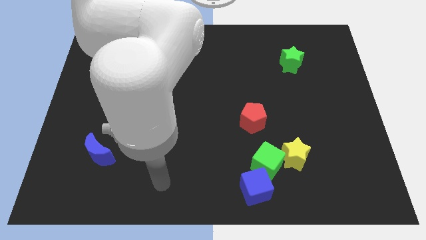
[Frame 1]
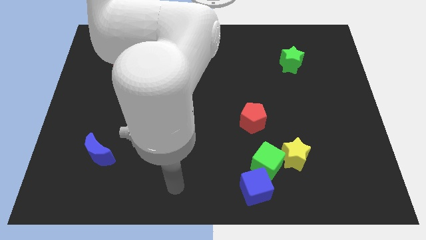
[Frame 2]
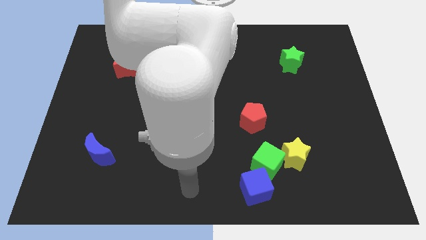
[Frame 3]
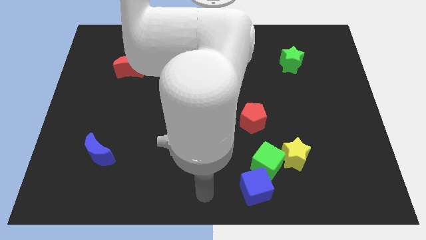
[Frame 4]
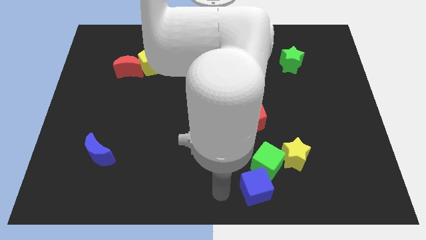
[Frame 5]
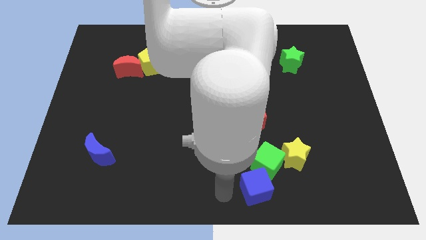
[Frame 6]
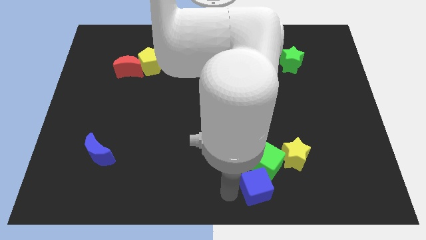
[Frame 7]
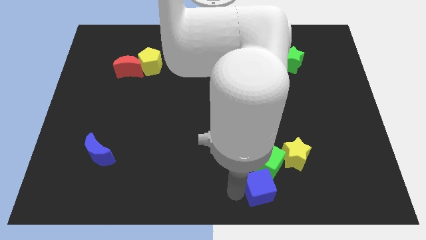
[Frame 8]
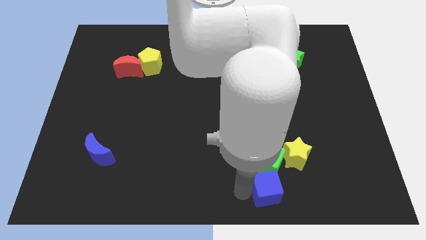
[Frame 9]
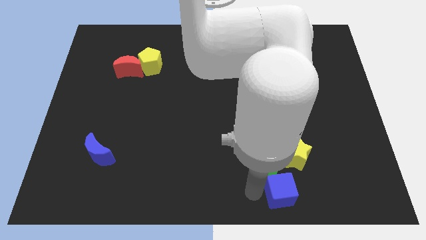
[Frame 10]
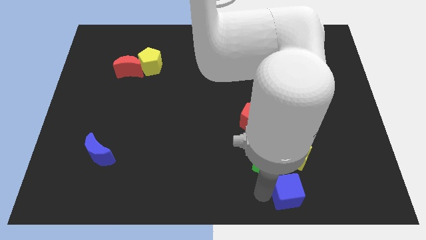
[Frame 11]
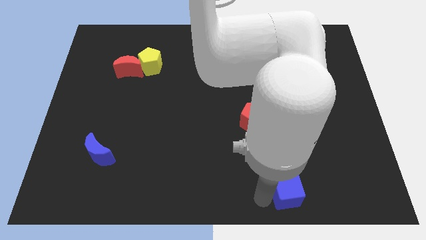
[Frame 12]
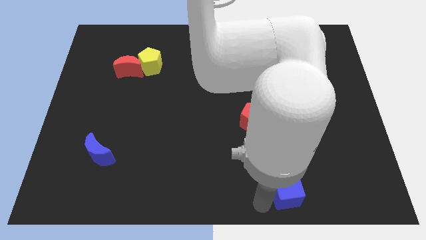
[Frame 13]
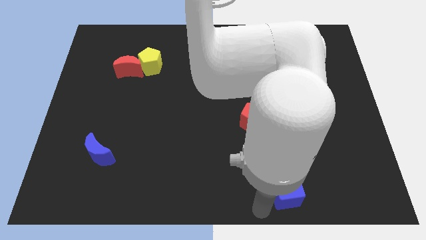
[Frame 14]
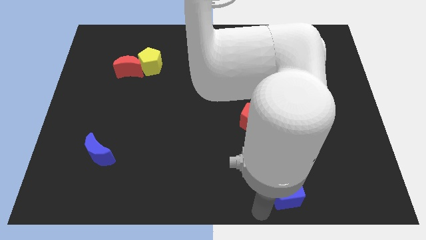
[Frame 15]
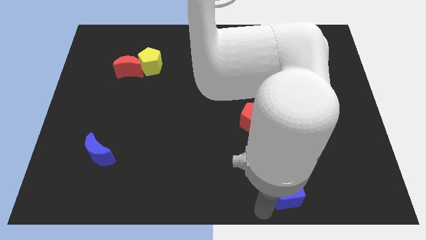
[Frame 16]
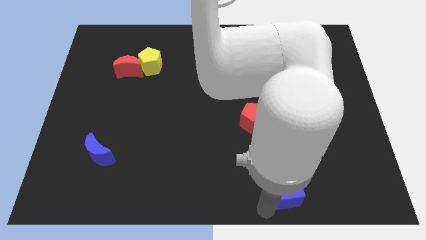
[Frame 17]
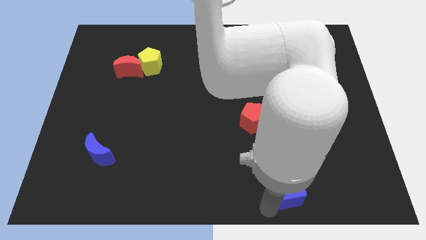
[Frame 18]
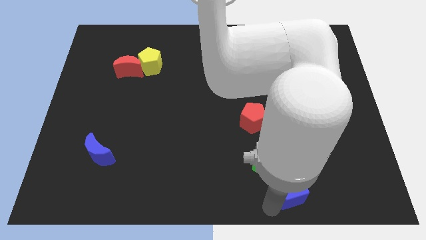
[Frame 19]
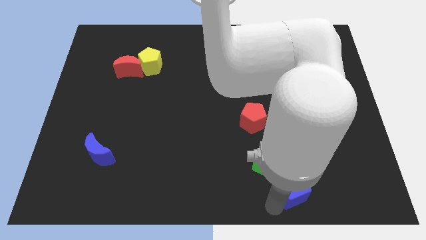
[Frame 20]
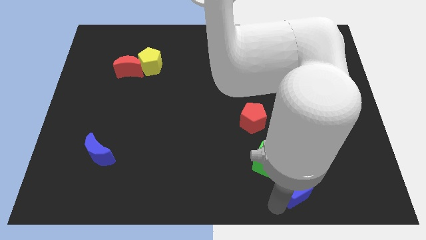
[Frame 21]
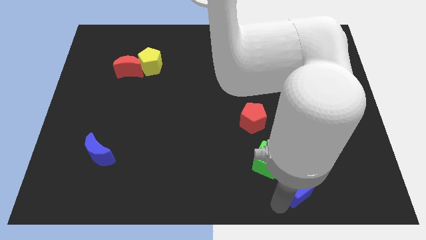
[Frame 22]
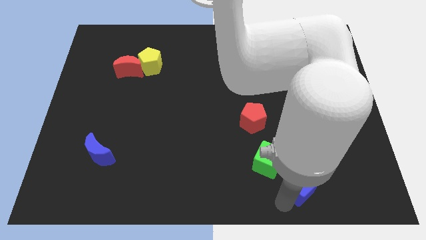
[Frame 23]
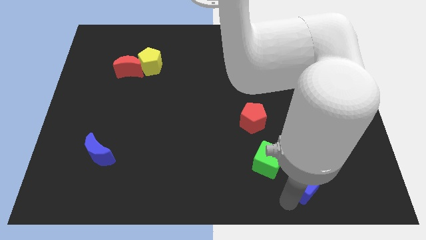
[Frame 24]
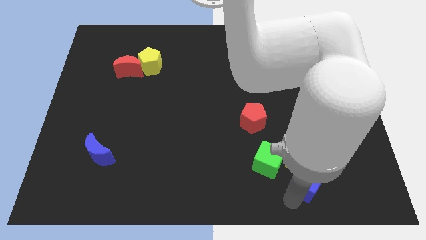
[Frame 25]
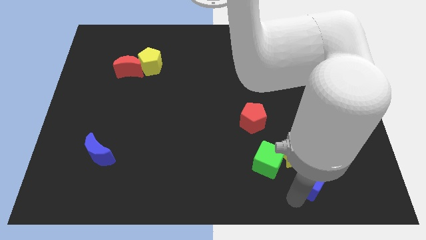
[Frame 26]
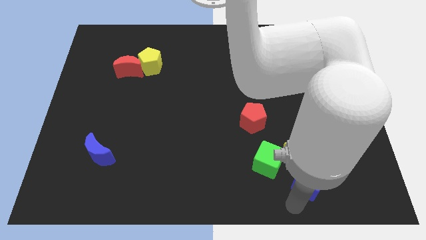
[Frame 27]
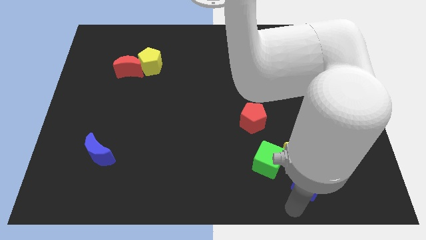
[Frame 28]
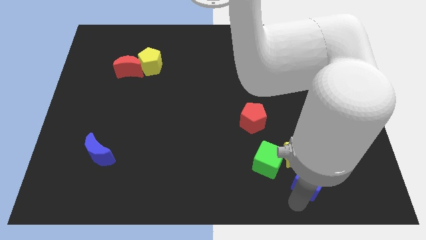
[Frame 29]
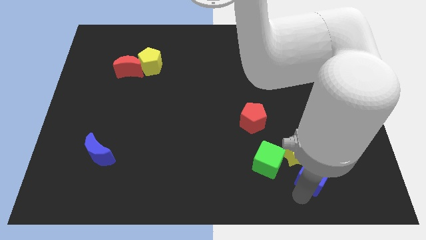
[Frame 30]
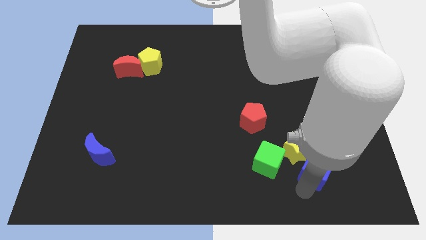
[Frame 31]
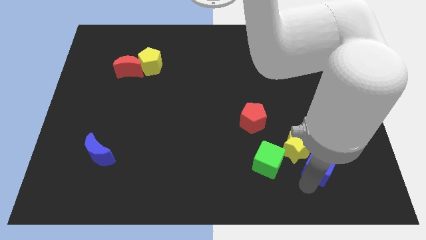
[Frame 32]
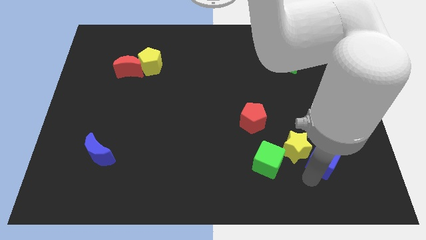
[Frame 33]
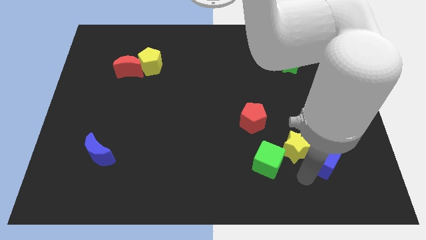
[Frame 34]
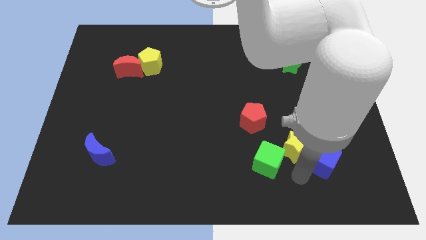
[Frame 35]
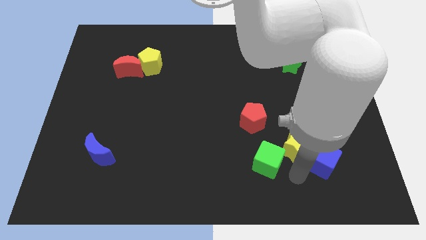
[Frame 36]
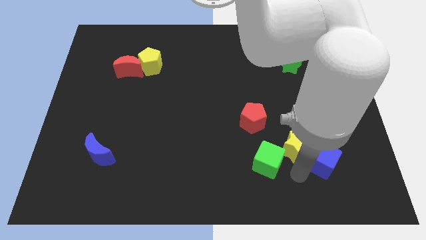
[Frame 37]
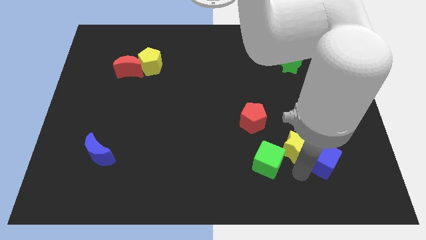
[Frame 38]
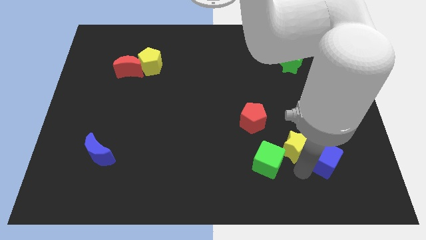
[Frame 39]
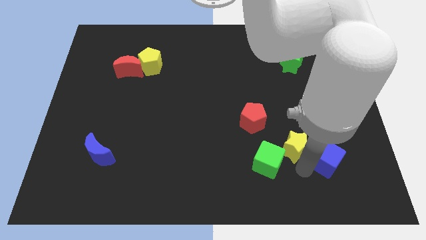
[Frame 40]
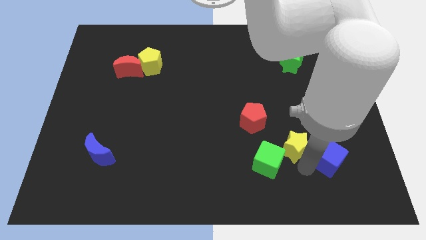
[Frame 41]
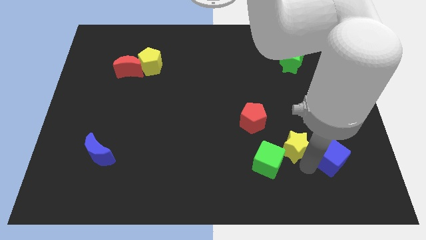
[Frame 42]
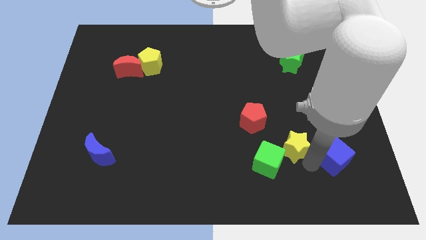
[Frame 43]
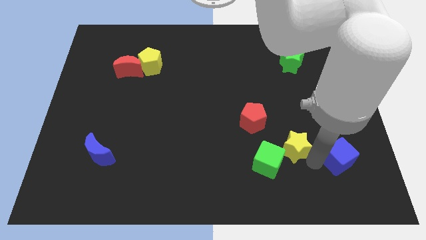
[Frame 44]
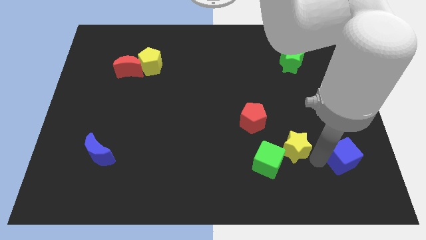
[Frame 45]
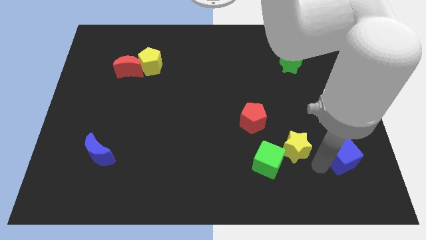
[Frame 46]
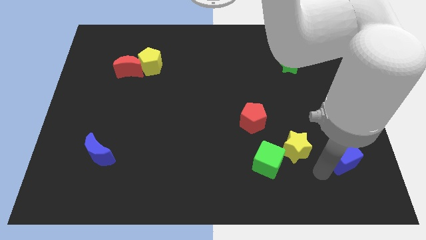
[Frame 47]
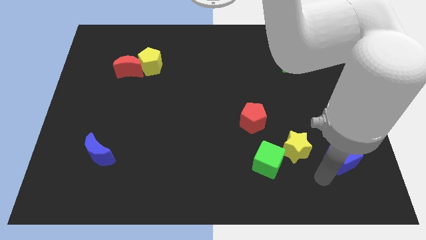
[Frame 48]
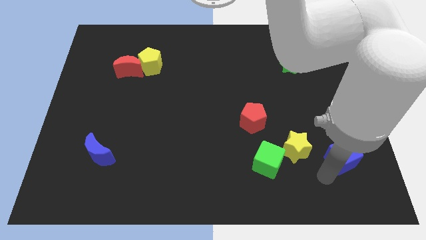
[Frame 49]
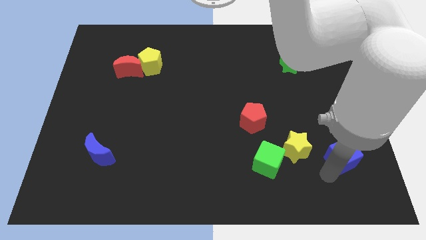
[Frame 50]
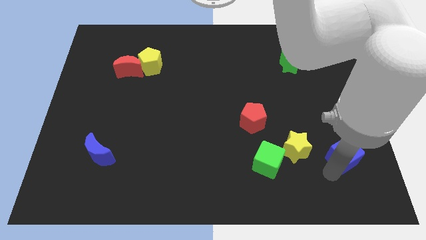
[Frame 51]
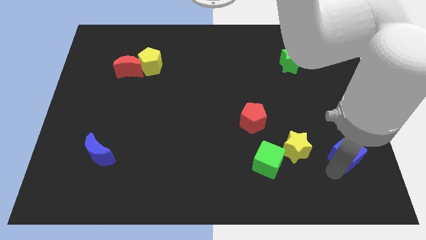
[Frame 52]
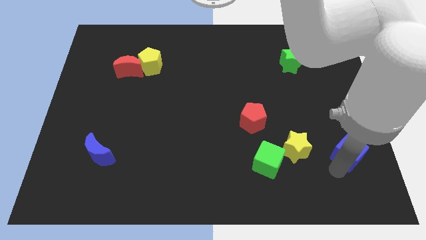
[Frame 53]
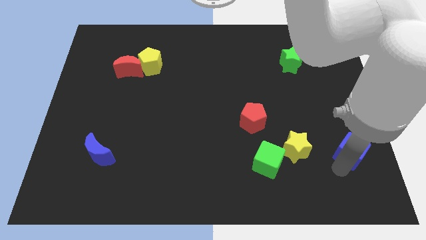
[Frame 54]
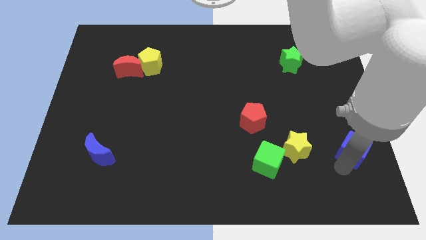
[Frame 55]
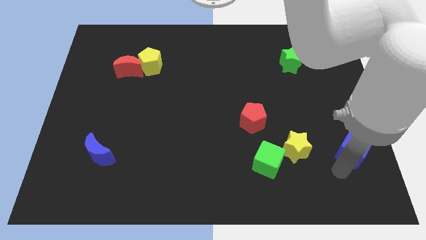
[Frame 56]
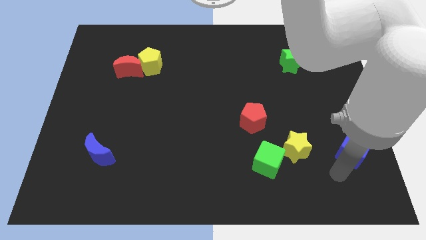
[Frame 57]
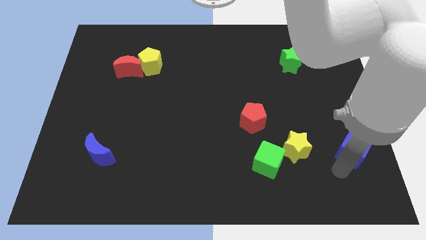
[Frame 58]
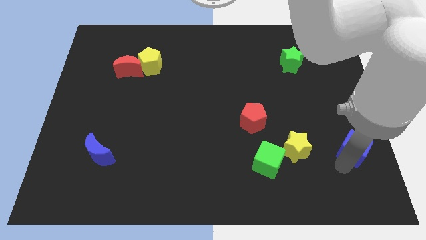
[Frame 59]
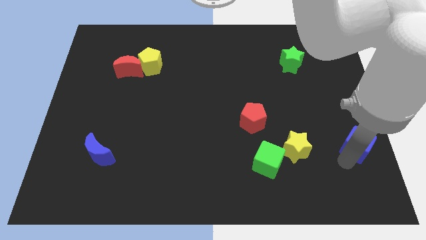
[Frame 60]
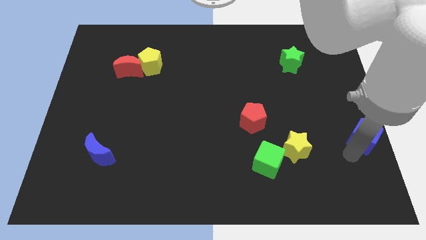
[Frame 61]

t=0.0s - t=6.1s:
push the blue cube to the center right

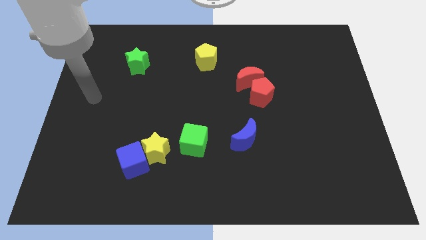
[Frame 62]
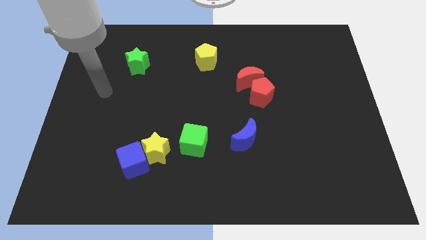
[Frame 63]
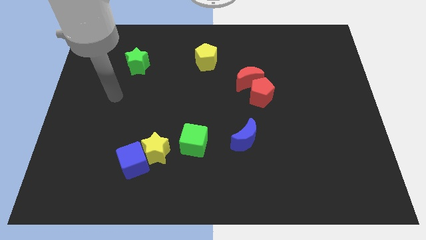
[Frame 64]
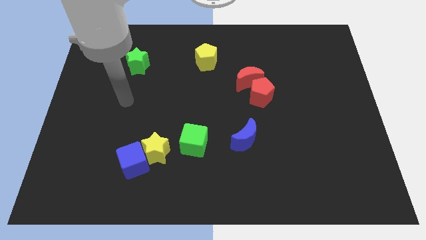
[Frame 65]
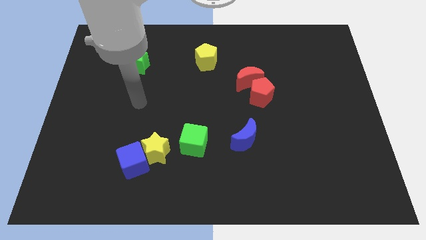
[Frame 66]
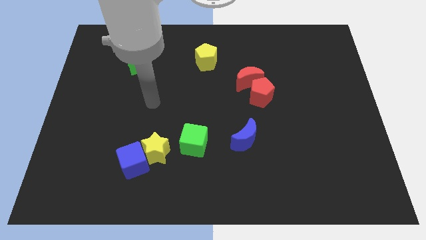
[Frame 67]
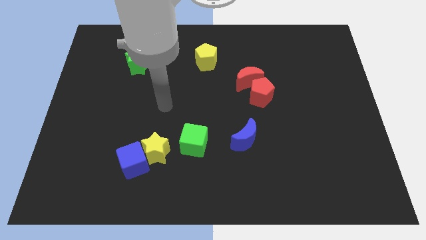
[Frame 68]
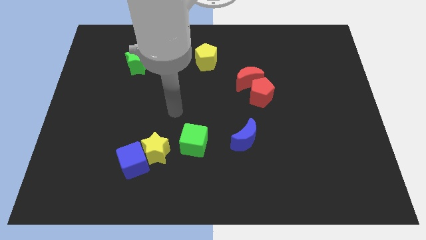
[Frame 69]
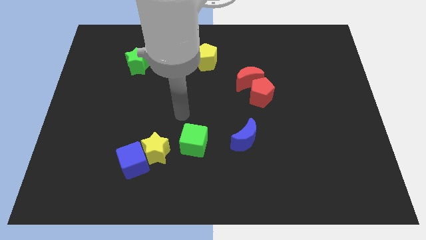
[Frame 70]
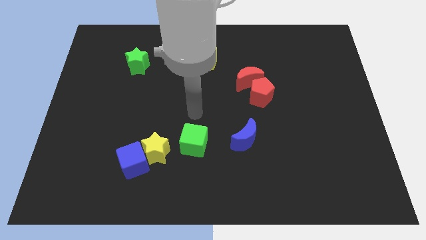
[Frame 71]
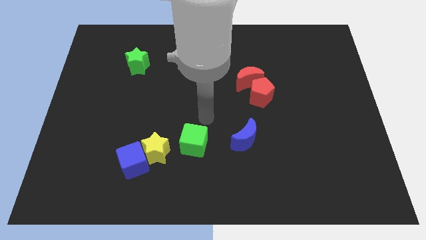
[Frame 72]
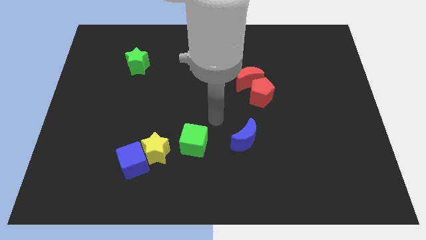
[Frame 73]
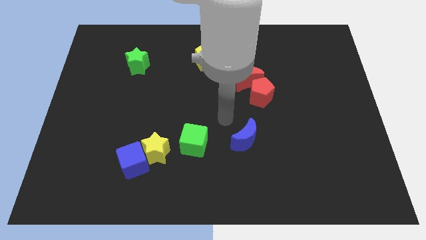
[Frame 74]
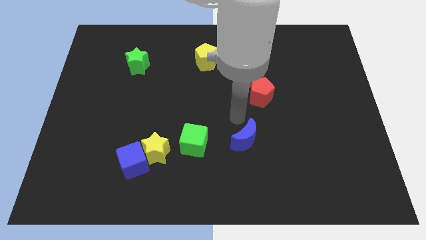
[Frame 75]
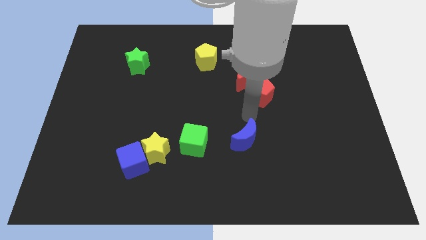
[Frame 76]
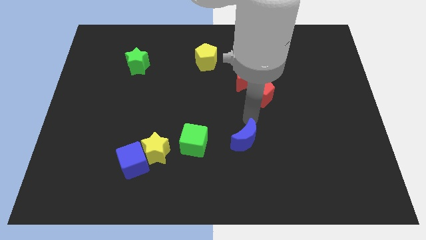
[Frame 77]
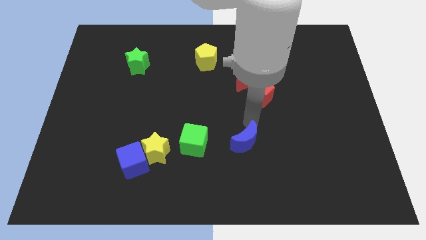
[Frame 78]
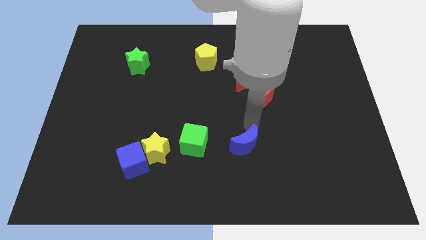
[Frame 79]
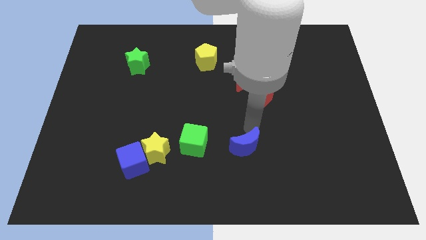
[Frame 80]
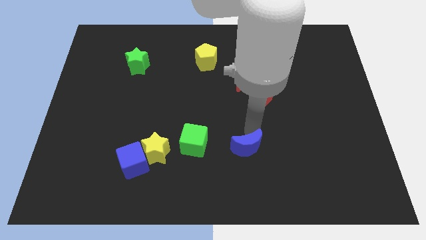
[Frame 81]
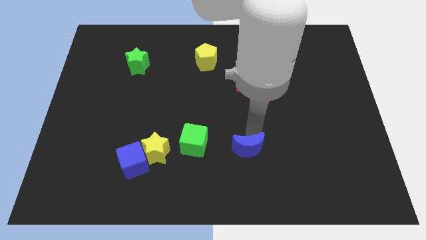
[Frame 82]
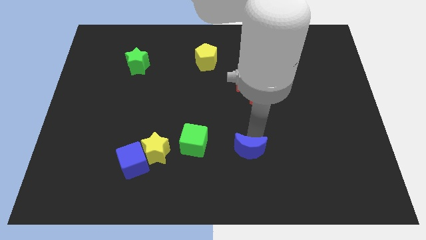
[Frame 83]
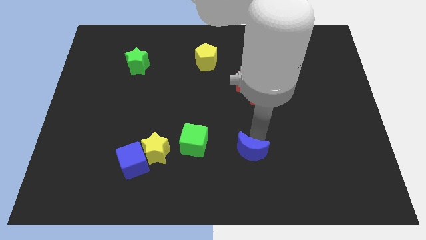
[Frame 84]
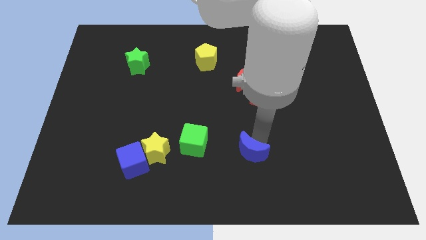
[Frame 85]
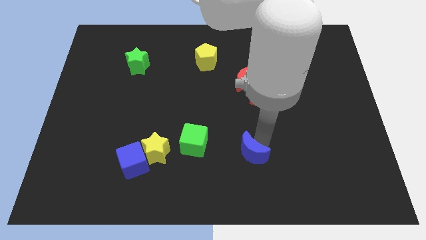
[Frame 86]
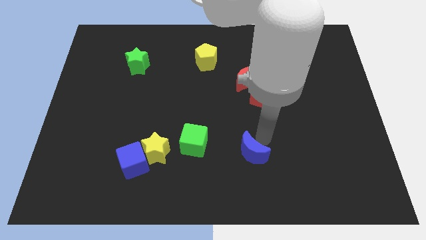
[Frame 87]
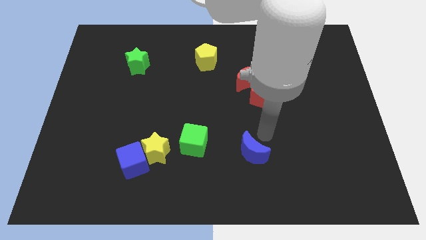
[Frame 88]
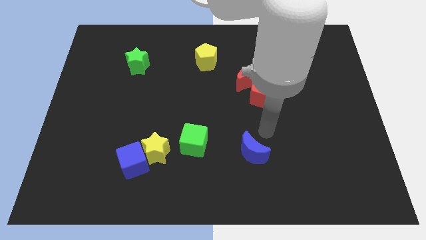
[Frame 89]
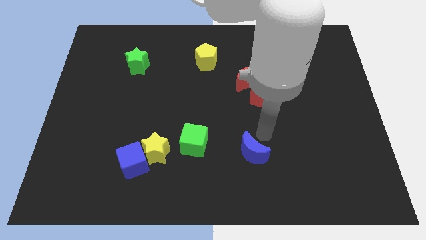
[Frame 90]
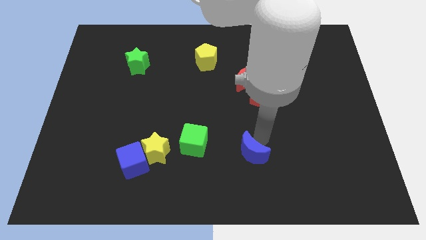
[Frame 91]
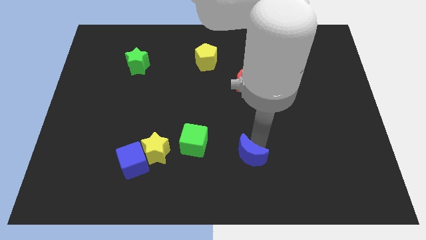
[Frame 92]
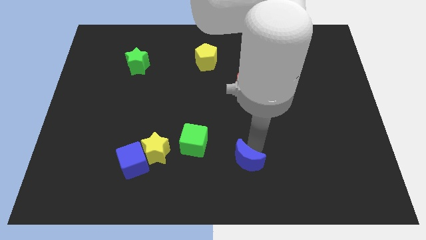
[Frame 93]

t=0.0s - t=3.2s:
slide the blue moon to the bottom
